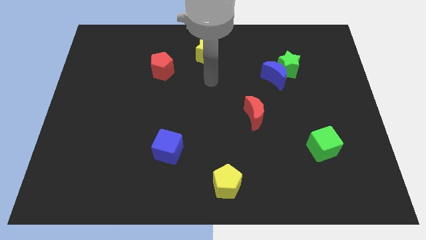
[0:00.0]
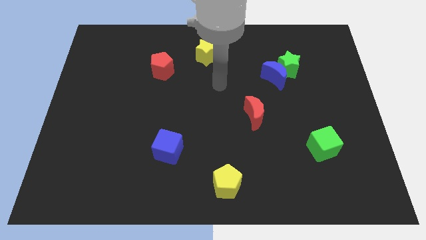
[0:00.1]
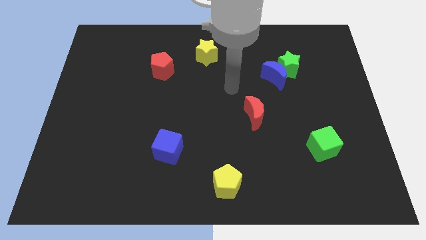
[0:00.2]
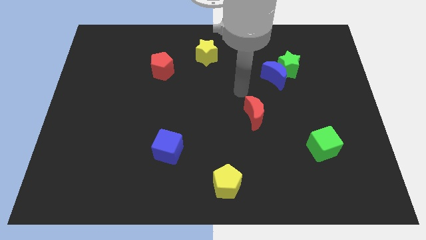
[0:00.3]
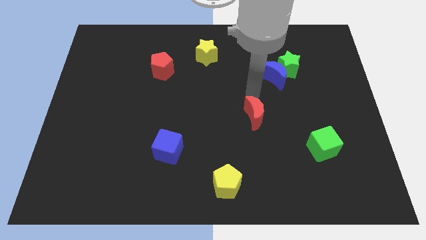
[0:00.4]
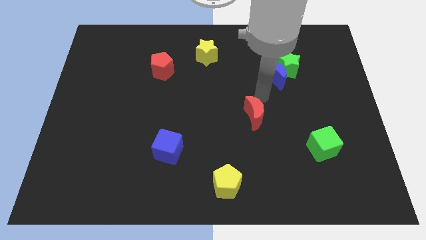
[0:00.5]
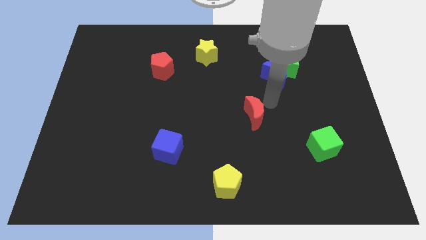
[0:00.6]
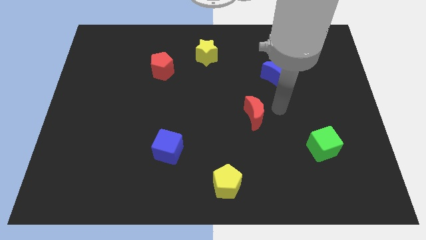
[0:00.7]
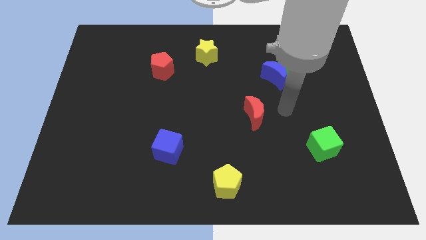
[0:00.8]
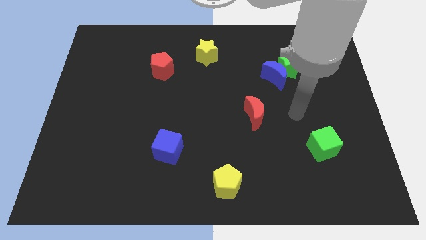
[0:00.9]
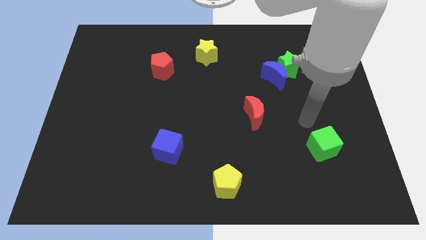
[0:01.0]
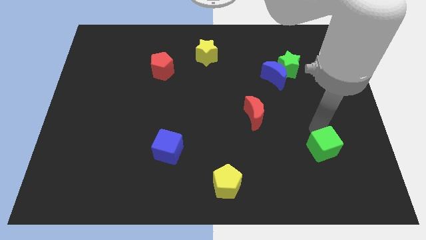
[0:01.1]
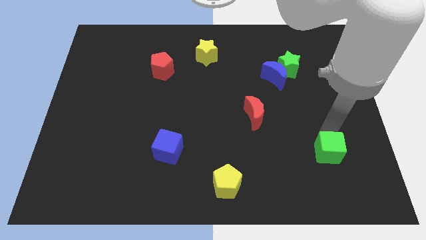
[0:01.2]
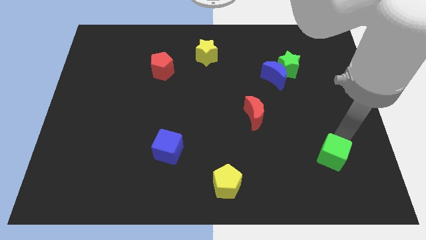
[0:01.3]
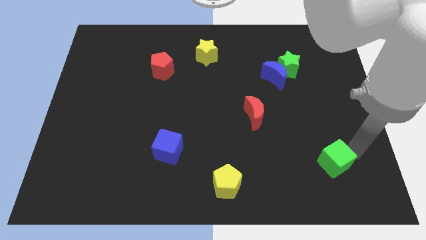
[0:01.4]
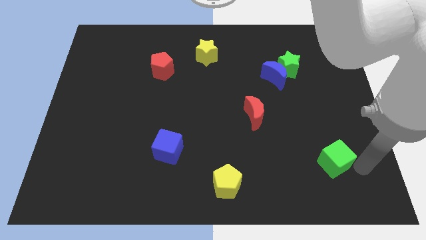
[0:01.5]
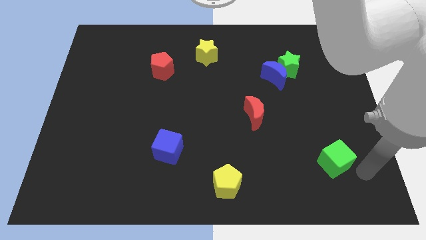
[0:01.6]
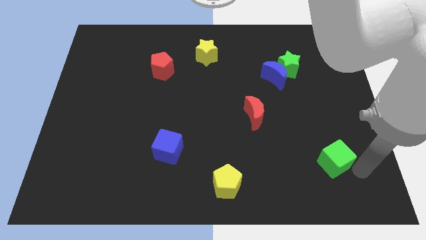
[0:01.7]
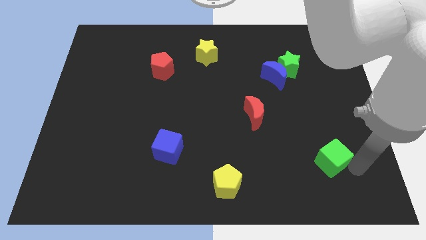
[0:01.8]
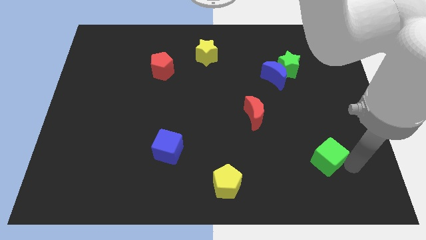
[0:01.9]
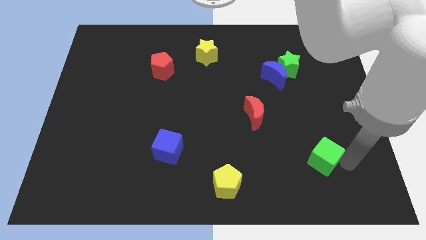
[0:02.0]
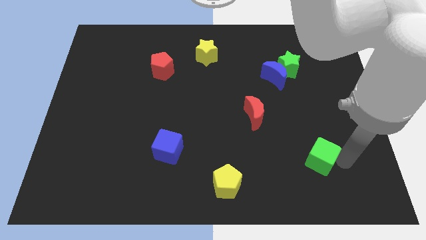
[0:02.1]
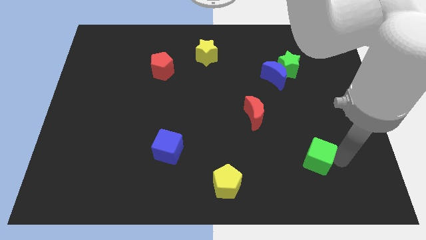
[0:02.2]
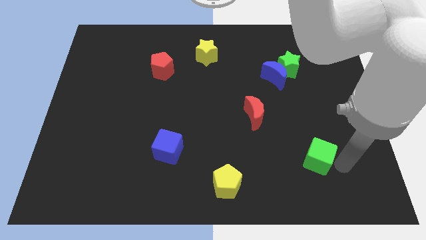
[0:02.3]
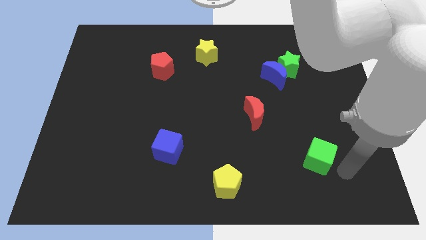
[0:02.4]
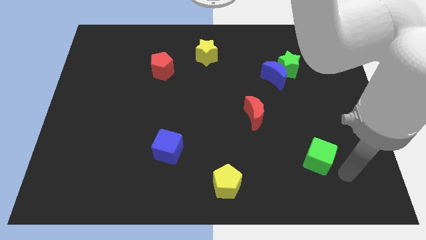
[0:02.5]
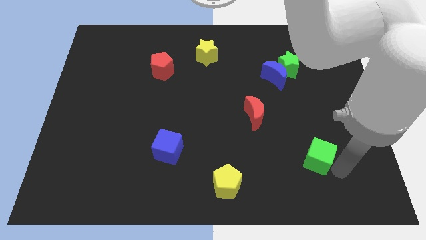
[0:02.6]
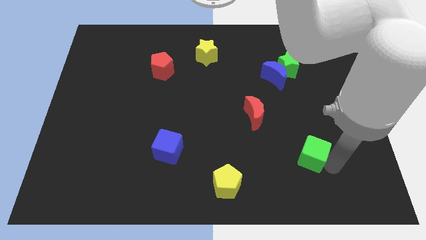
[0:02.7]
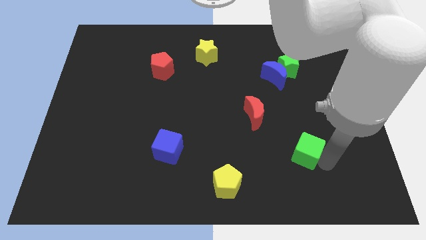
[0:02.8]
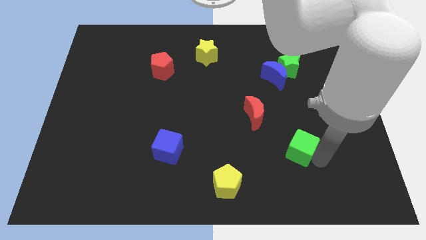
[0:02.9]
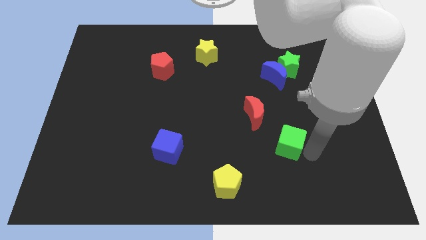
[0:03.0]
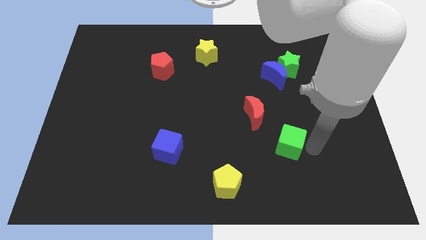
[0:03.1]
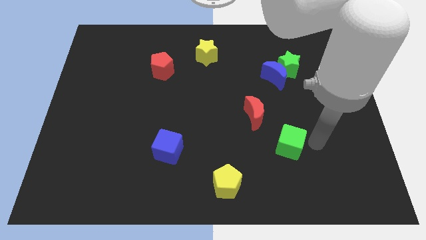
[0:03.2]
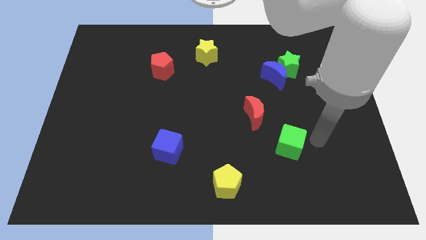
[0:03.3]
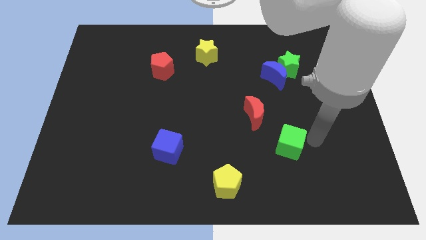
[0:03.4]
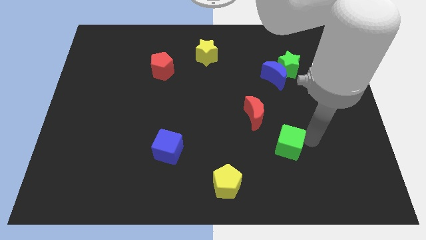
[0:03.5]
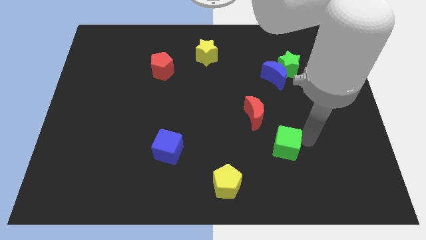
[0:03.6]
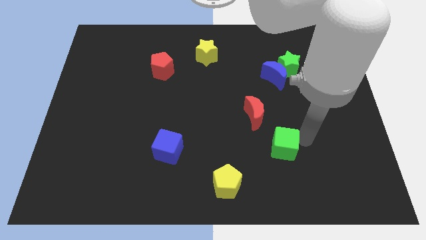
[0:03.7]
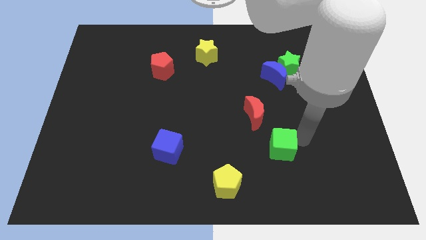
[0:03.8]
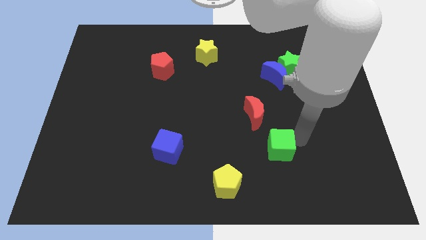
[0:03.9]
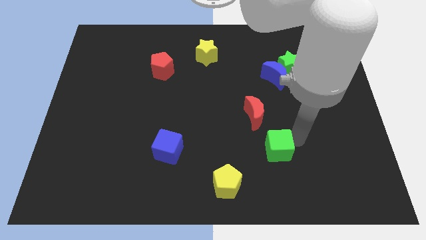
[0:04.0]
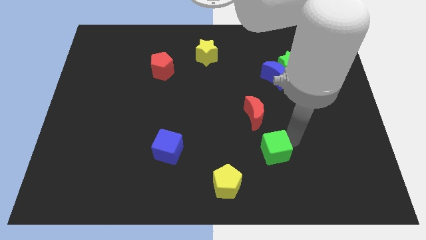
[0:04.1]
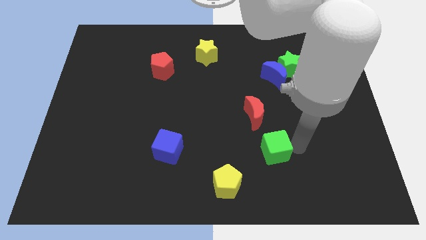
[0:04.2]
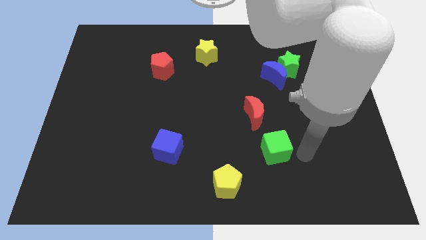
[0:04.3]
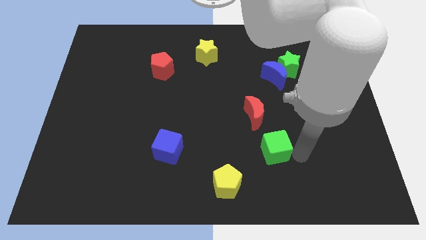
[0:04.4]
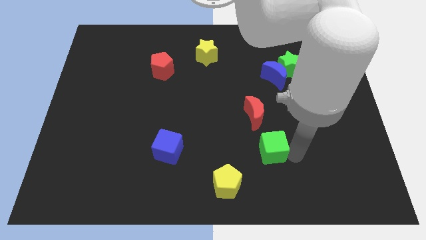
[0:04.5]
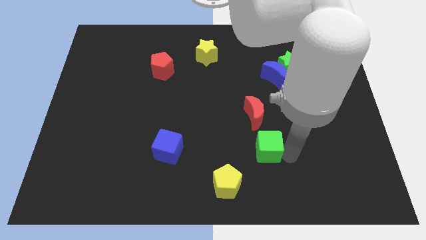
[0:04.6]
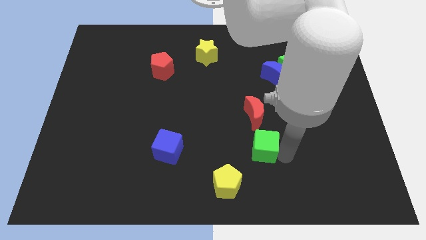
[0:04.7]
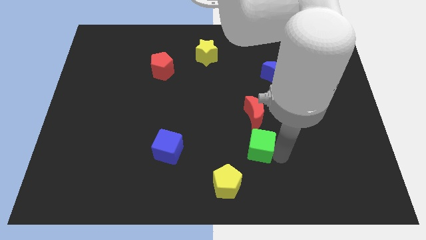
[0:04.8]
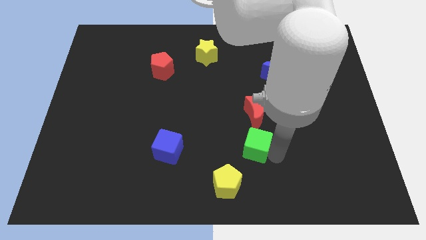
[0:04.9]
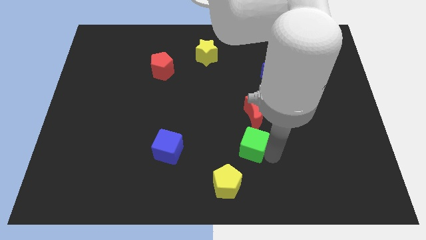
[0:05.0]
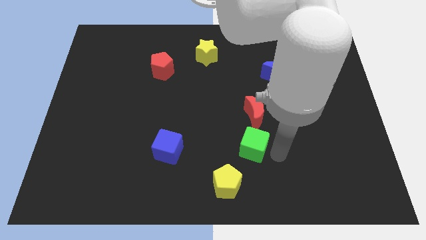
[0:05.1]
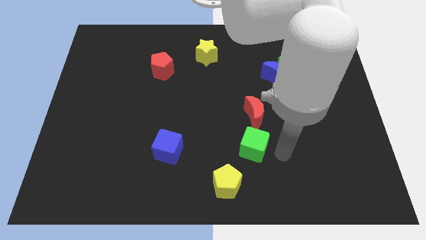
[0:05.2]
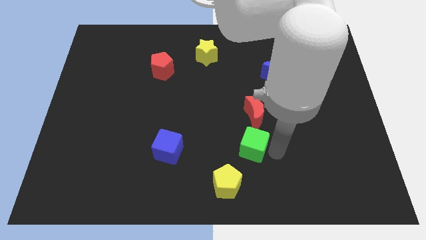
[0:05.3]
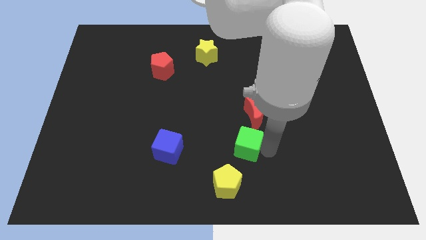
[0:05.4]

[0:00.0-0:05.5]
move the green cube to the top side of the yellow pentagon
